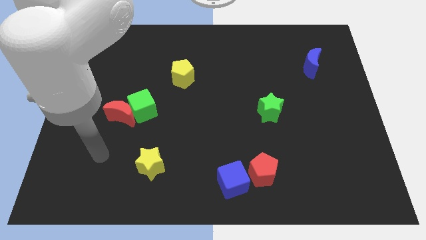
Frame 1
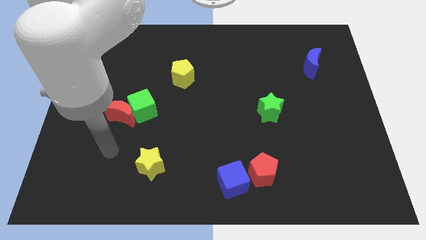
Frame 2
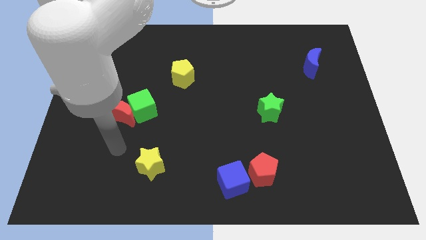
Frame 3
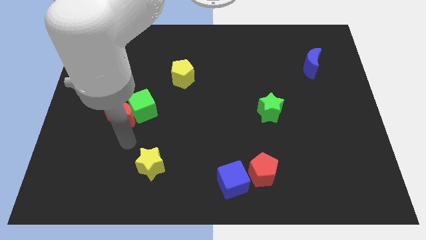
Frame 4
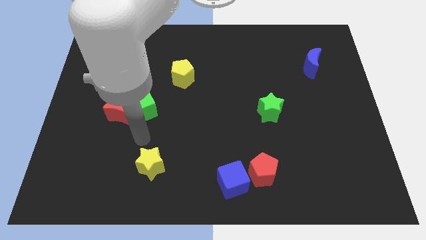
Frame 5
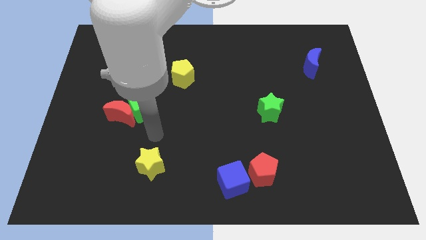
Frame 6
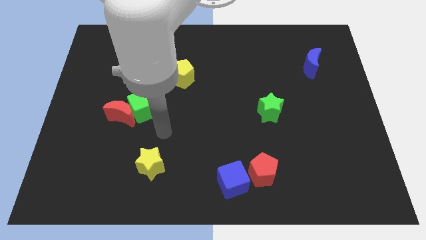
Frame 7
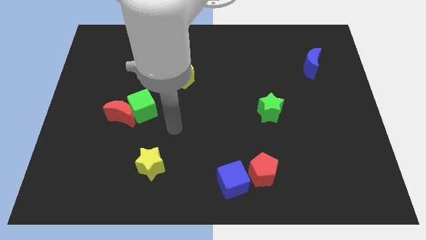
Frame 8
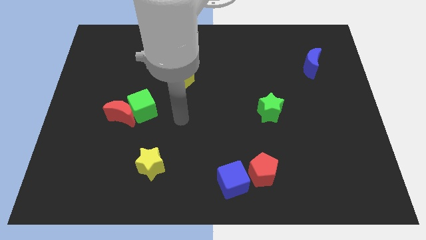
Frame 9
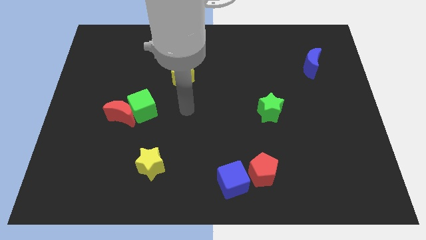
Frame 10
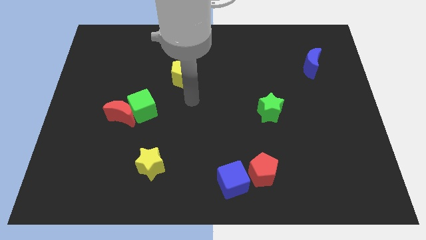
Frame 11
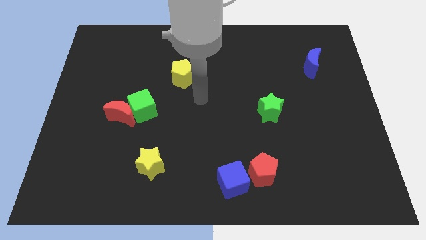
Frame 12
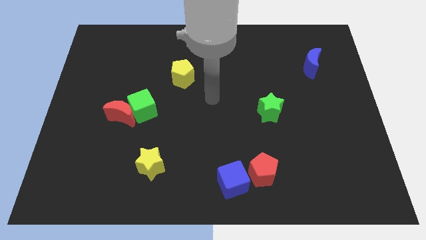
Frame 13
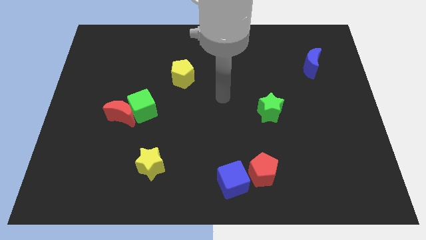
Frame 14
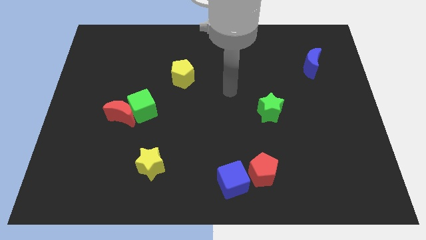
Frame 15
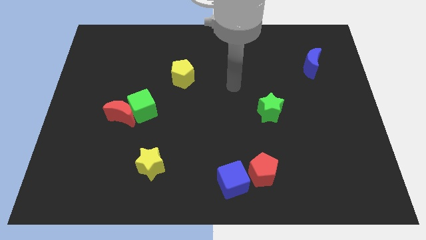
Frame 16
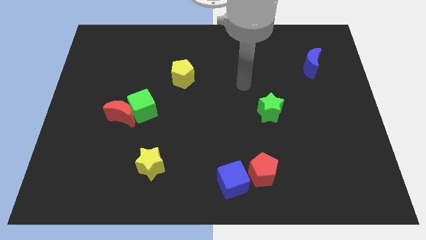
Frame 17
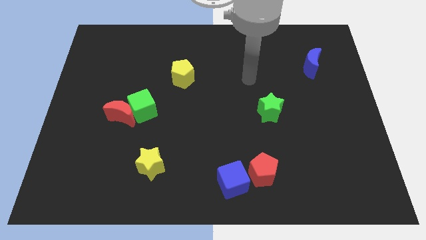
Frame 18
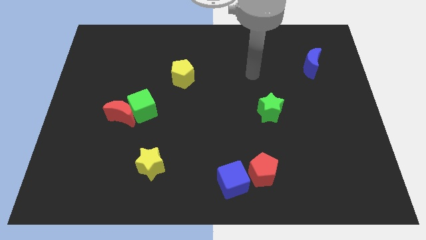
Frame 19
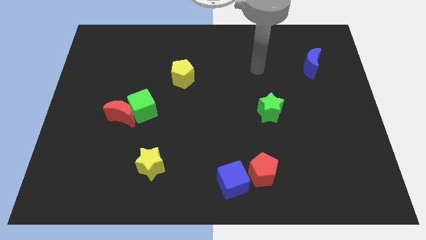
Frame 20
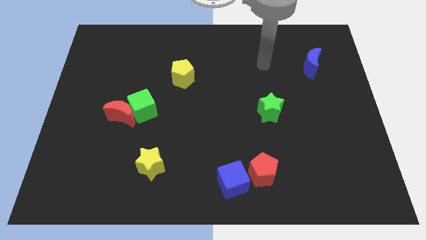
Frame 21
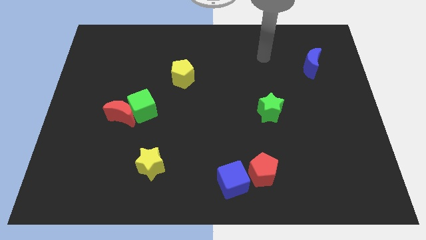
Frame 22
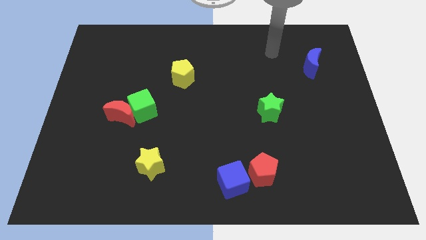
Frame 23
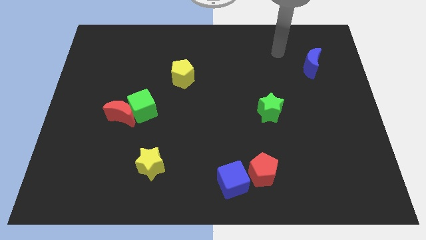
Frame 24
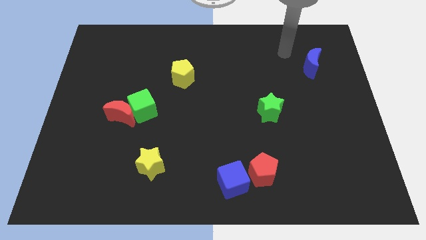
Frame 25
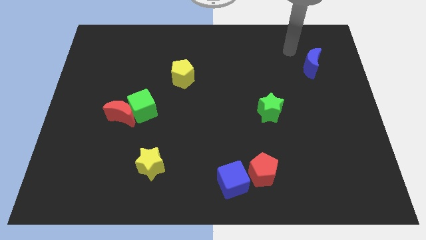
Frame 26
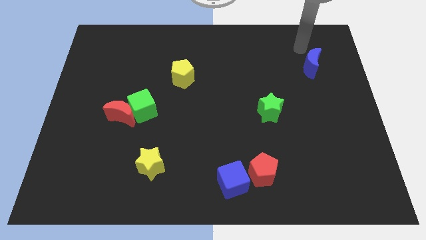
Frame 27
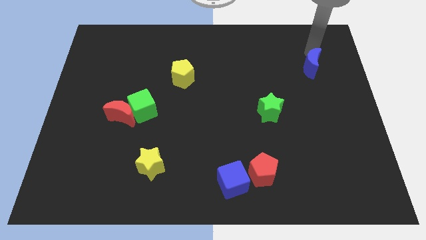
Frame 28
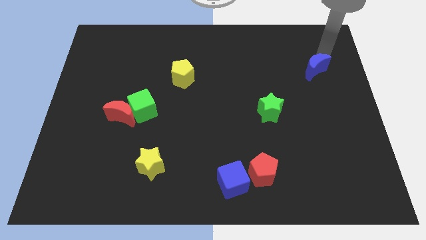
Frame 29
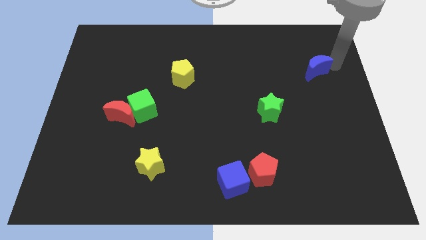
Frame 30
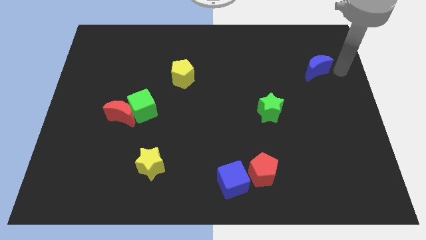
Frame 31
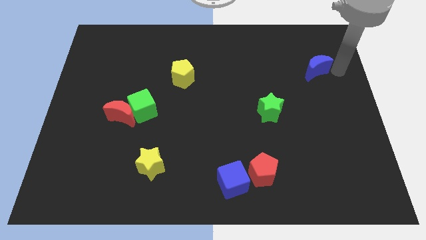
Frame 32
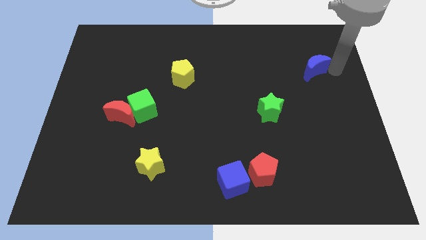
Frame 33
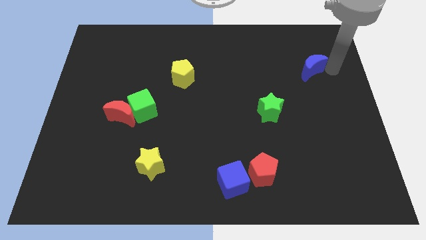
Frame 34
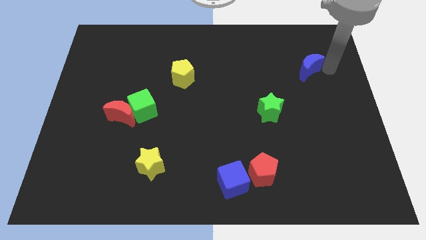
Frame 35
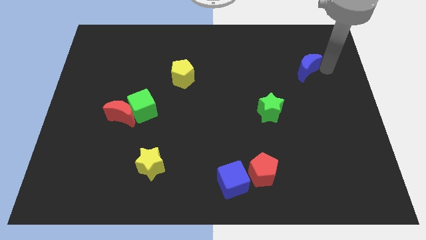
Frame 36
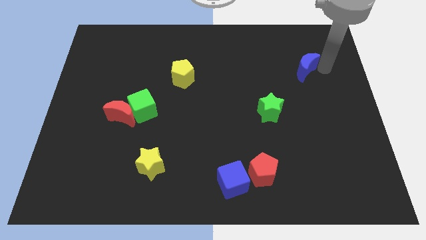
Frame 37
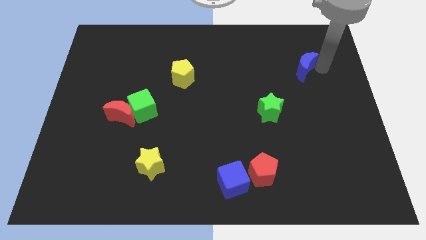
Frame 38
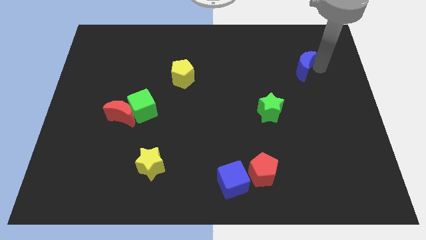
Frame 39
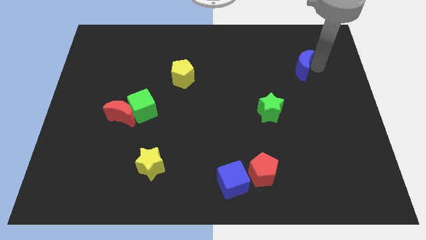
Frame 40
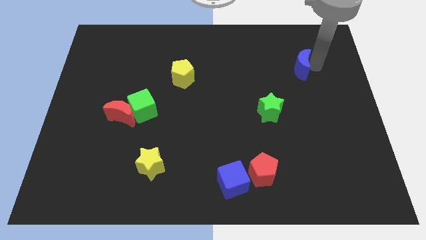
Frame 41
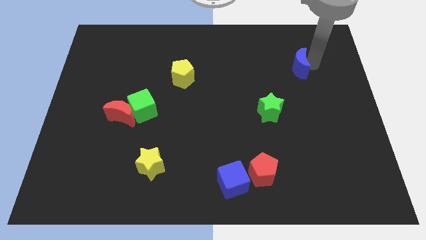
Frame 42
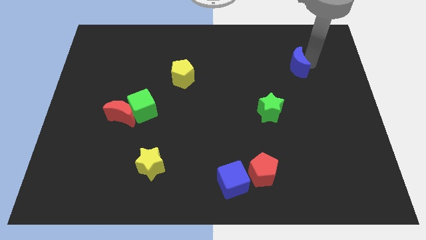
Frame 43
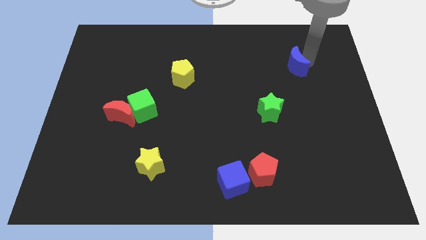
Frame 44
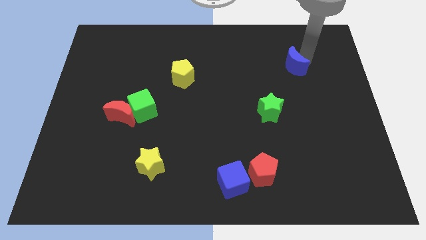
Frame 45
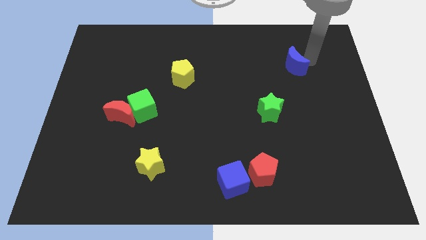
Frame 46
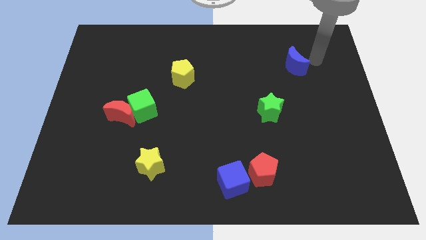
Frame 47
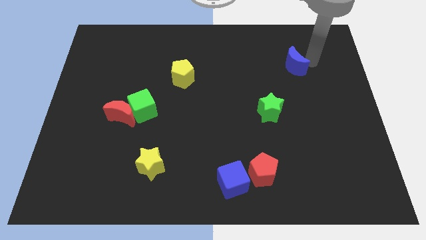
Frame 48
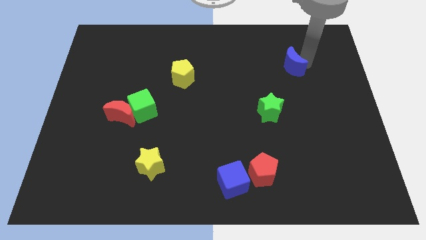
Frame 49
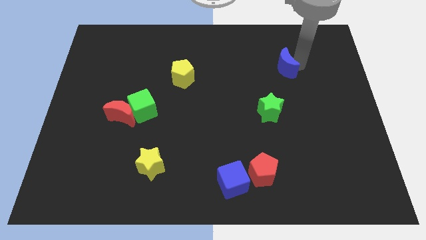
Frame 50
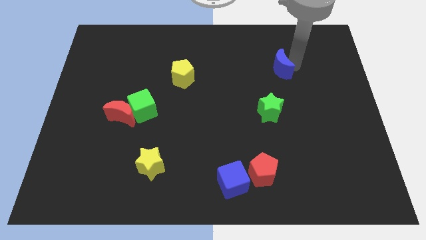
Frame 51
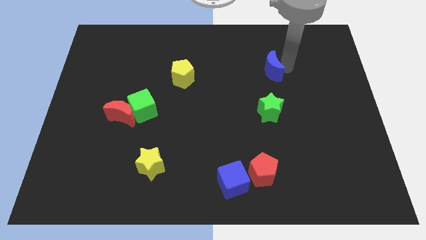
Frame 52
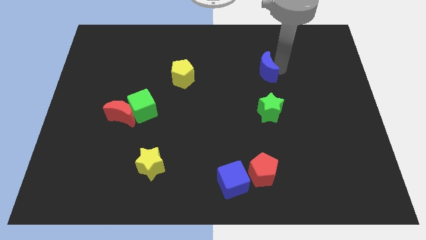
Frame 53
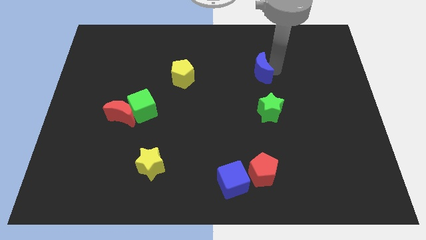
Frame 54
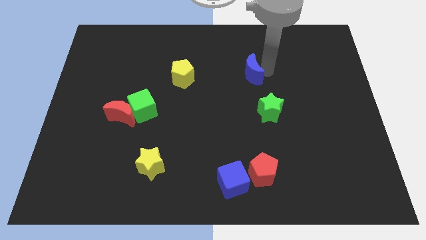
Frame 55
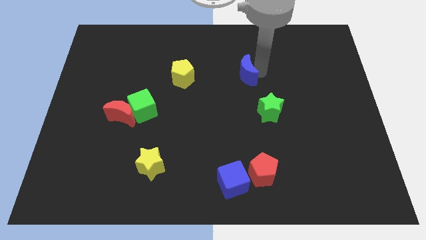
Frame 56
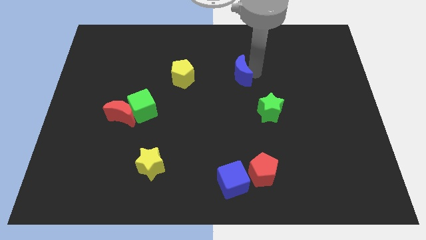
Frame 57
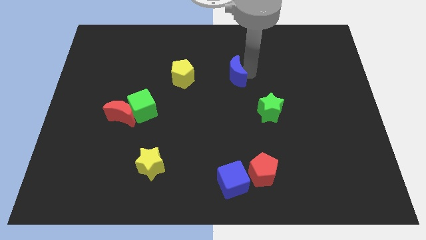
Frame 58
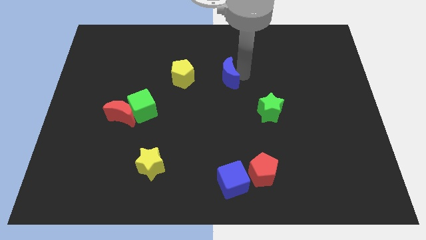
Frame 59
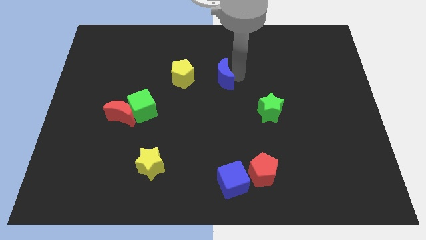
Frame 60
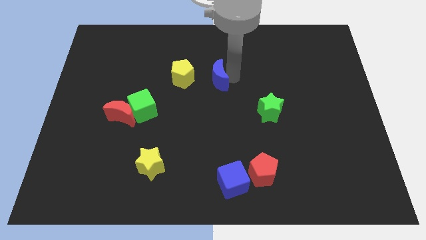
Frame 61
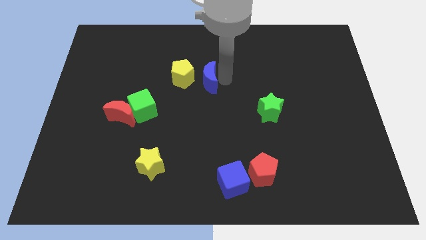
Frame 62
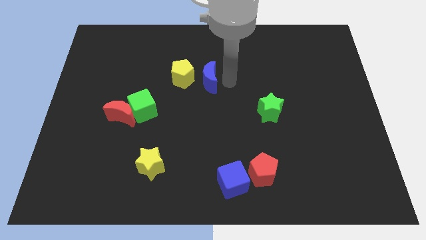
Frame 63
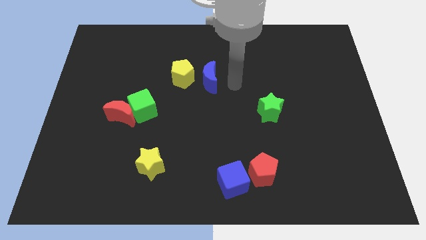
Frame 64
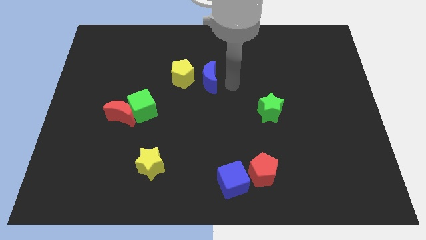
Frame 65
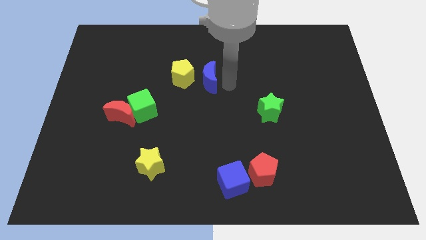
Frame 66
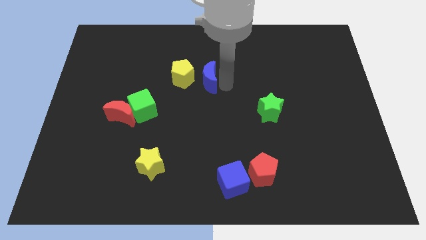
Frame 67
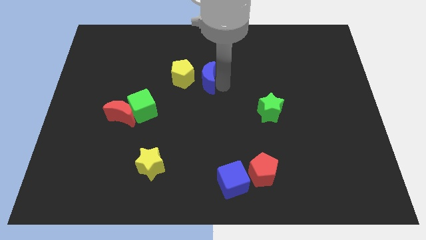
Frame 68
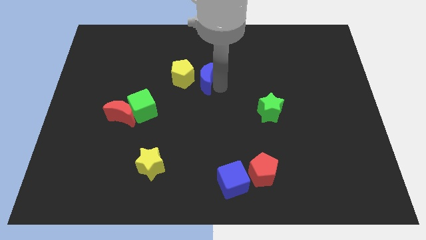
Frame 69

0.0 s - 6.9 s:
put the blue moon next to the yellow pentagon
